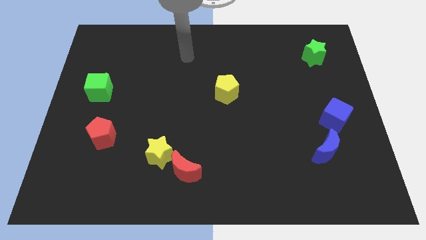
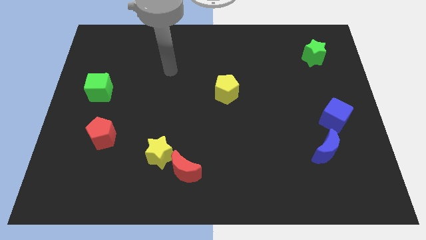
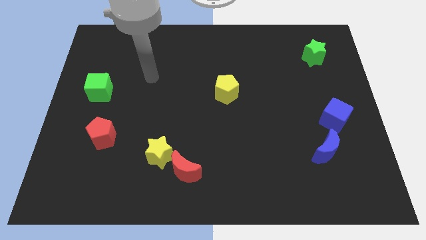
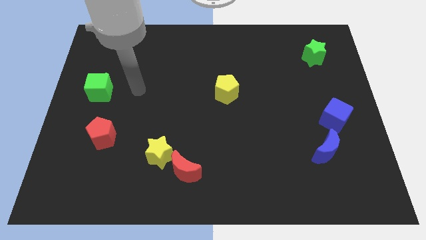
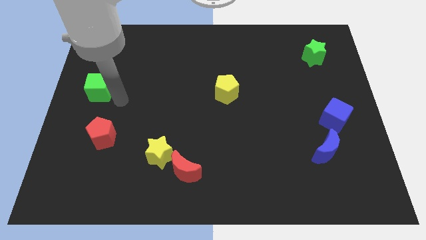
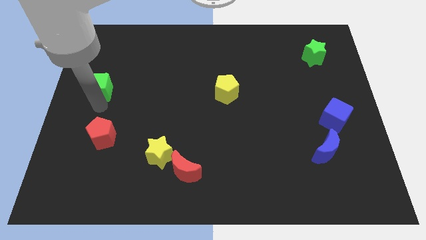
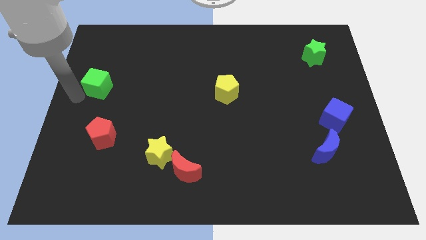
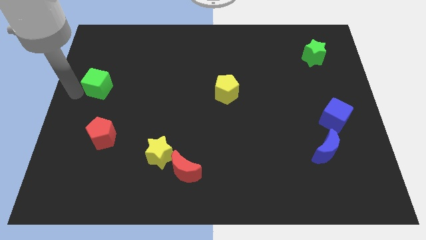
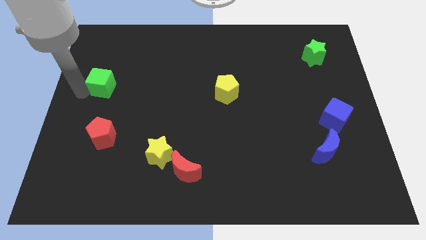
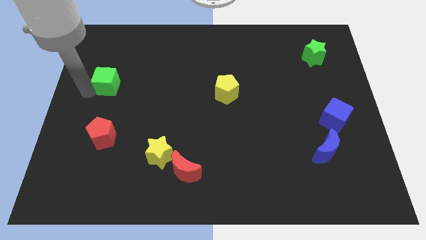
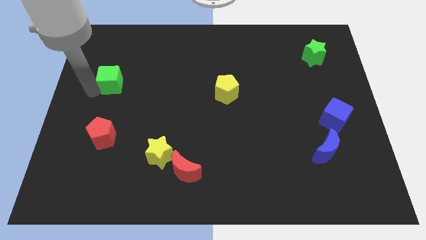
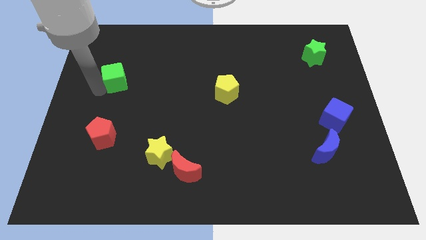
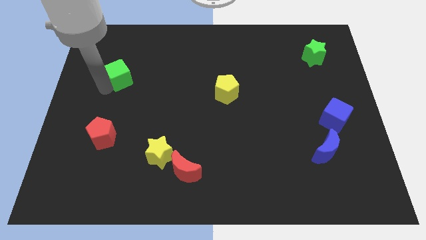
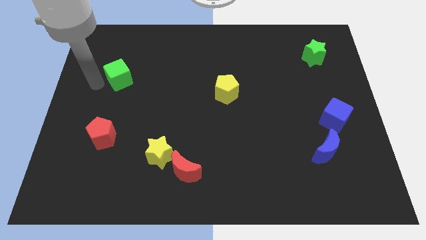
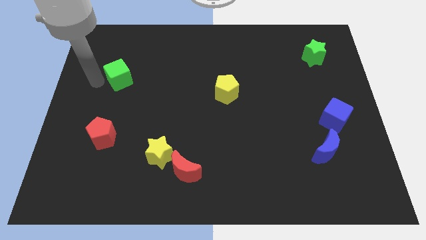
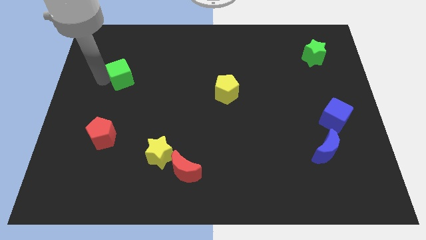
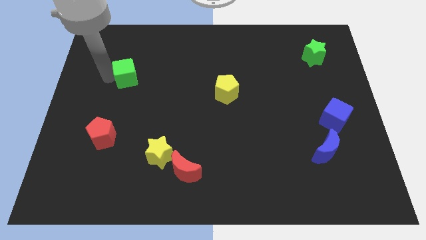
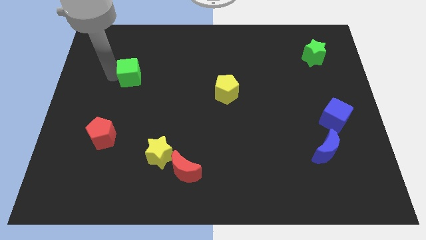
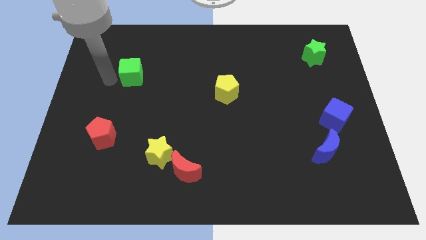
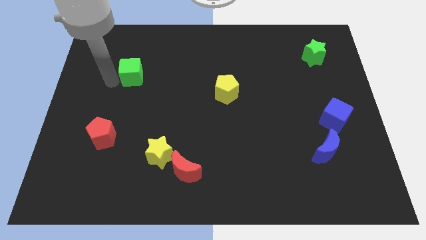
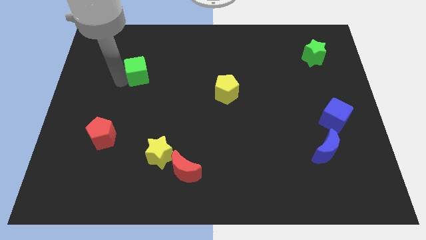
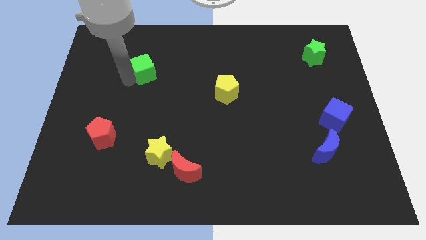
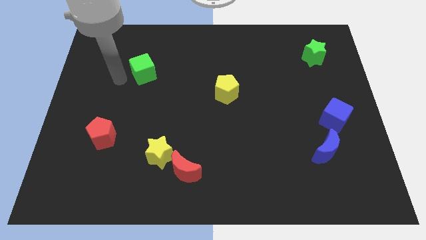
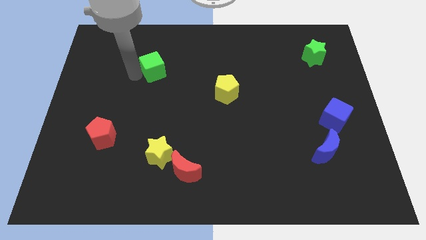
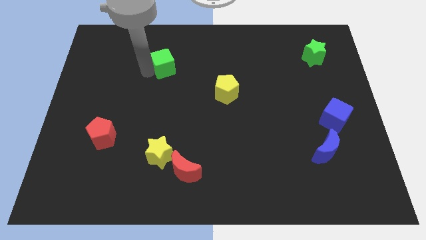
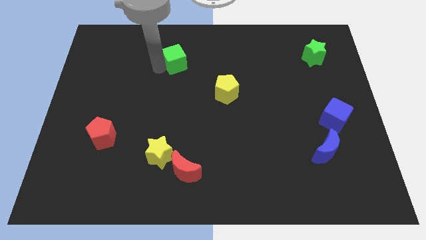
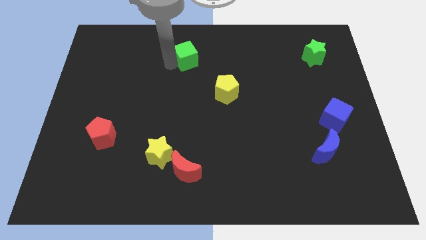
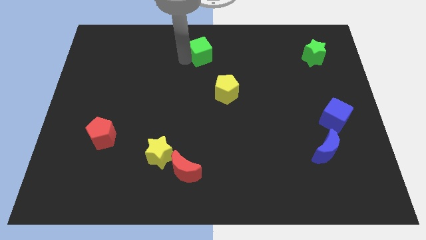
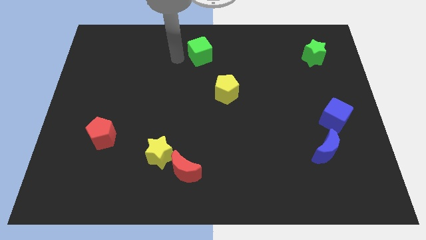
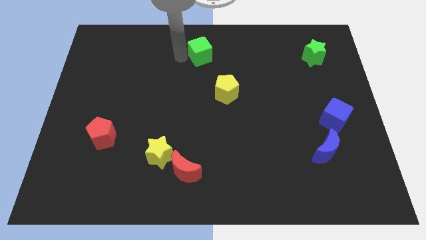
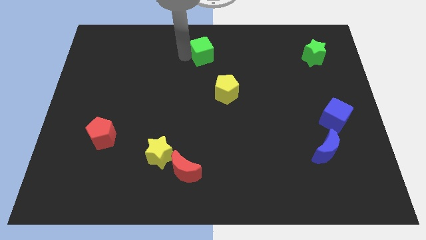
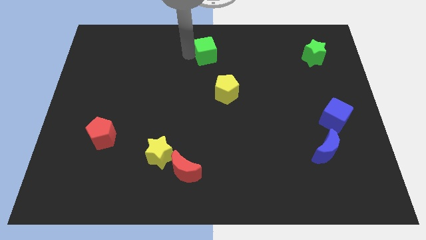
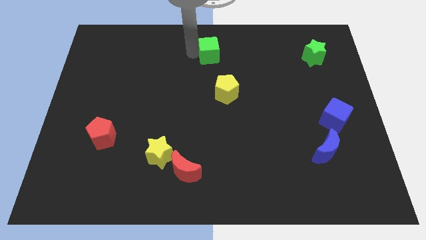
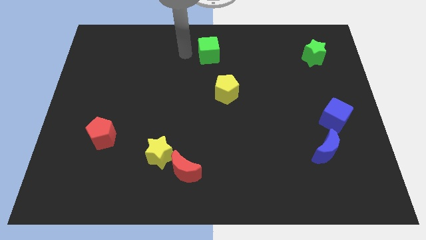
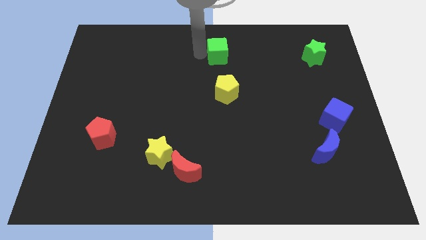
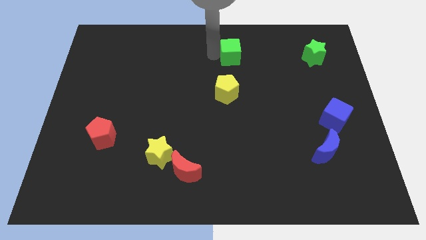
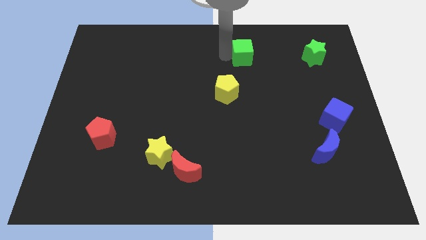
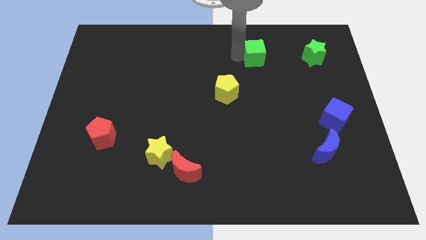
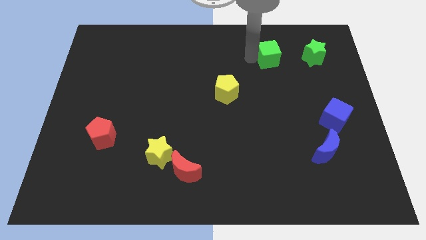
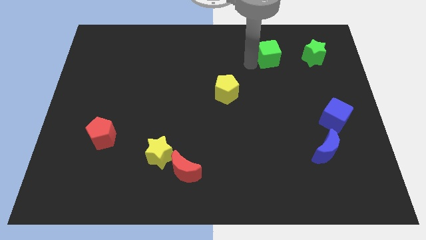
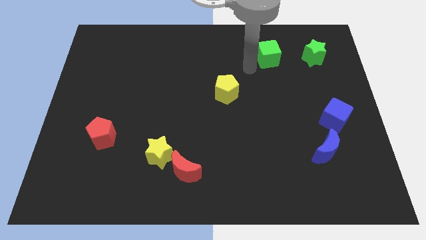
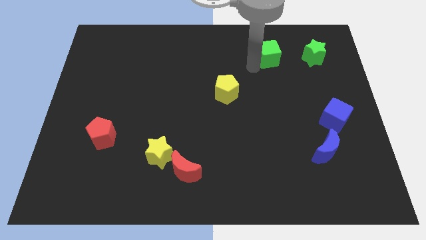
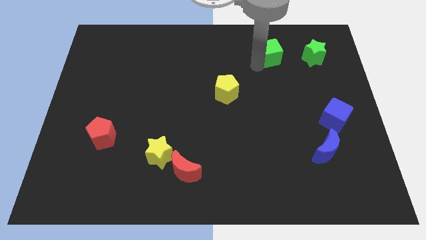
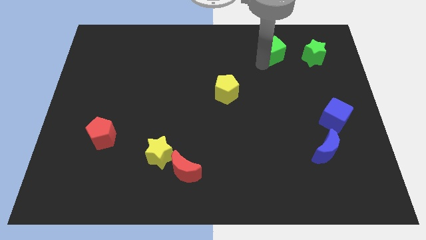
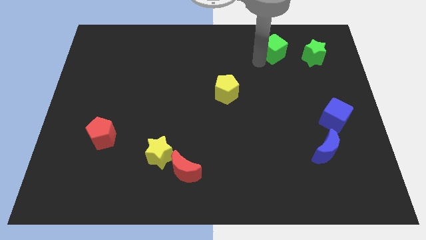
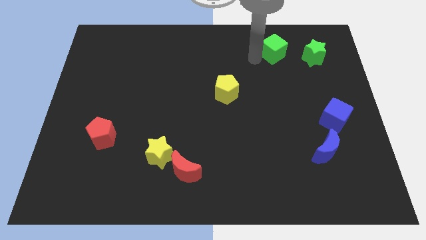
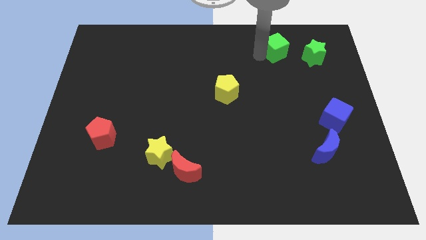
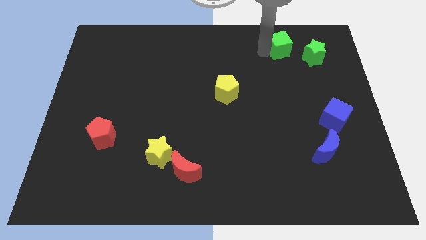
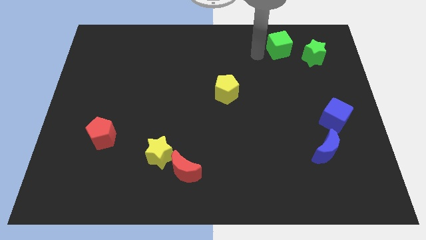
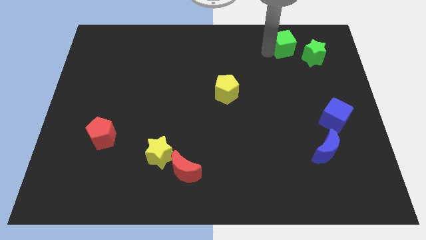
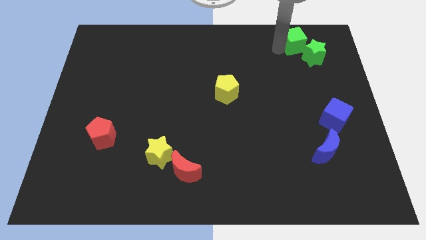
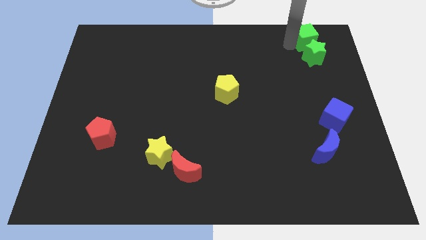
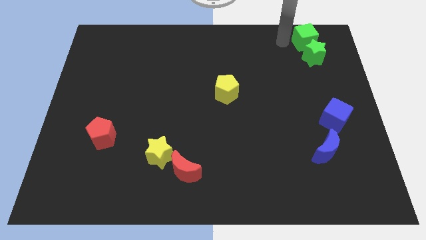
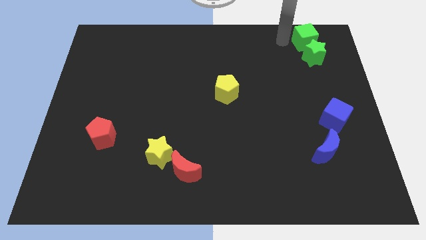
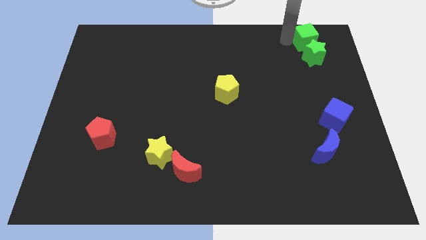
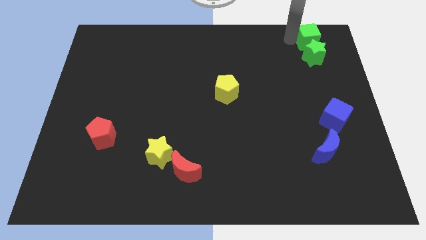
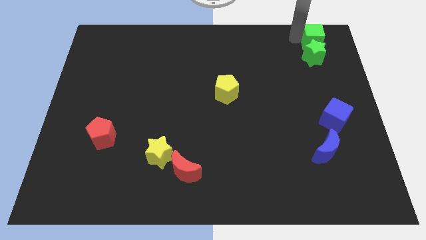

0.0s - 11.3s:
slide the green cube to the top right

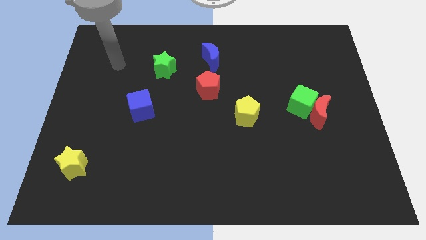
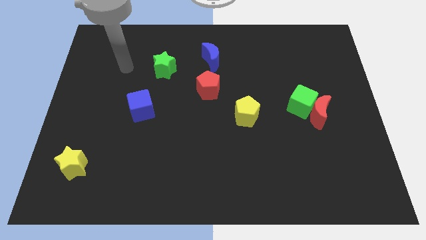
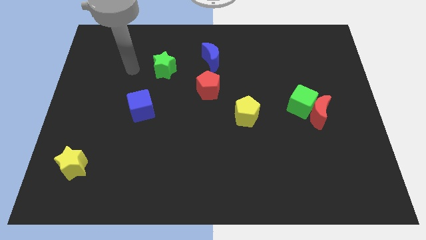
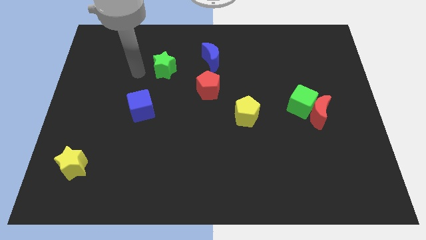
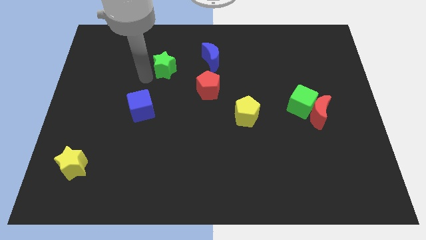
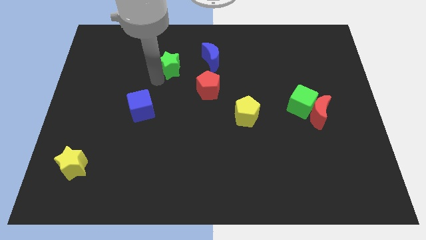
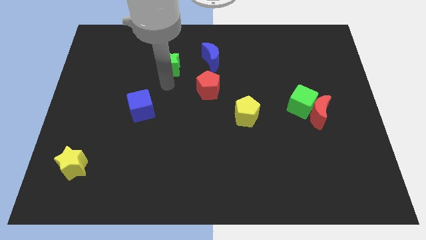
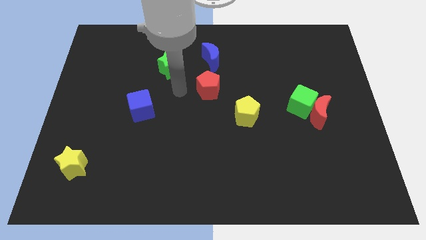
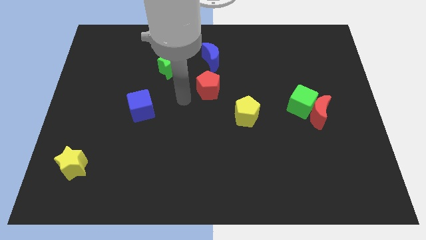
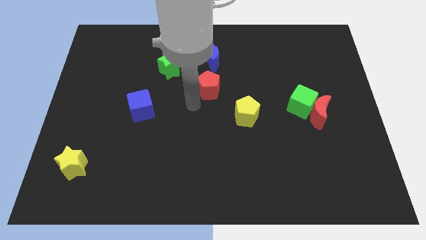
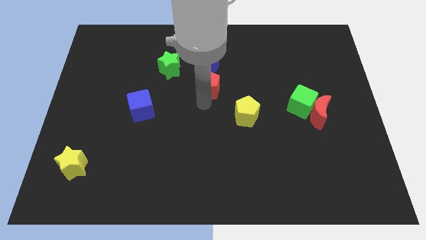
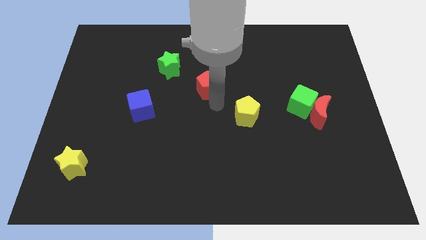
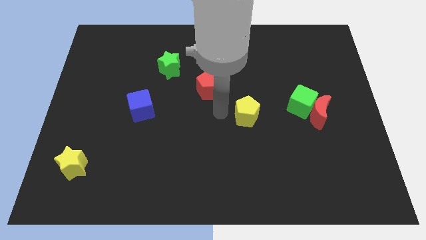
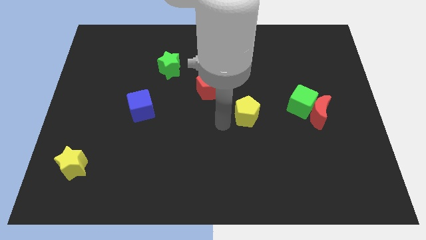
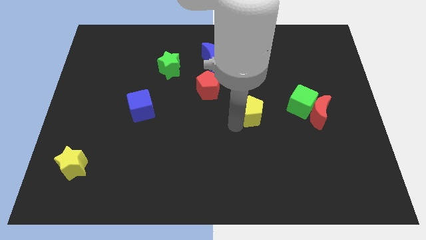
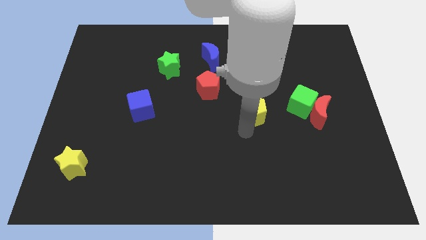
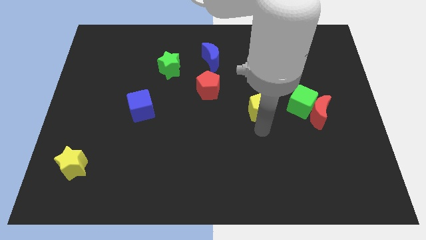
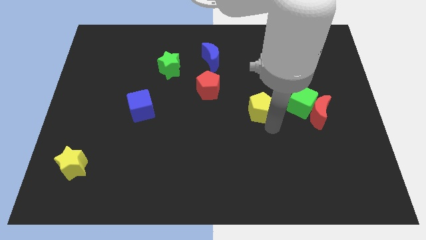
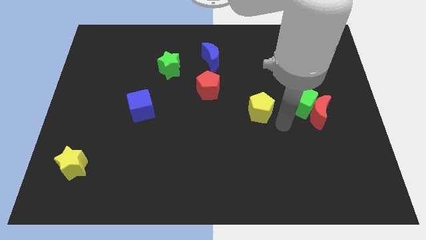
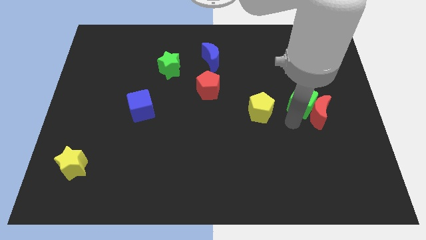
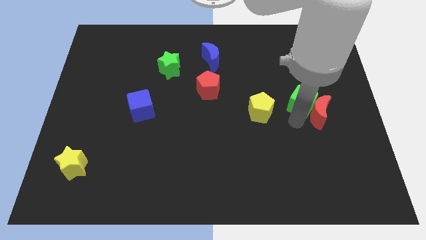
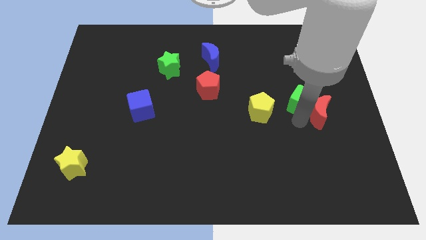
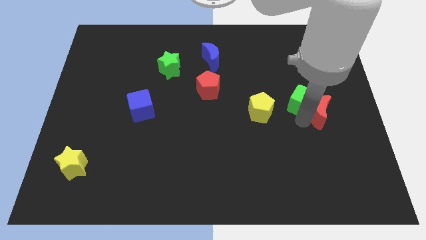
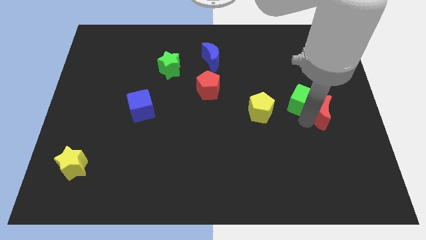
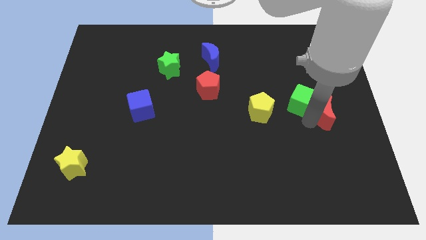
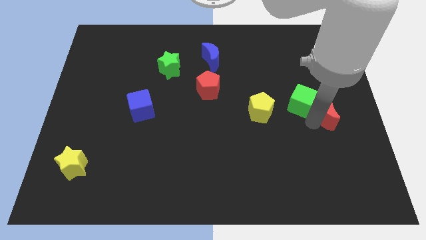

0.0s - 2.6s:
slide the red moon to the right side of the board
